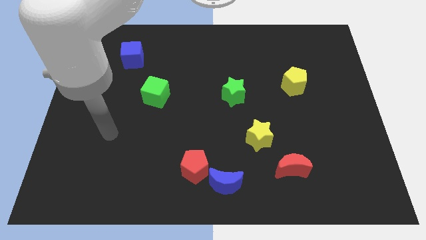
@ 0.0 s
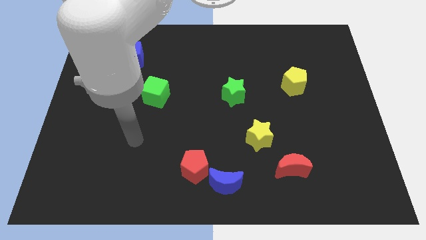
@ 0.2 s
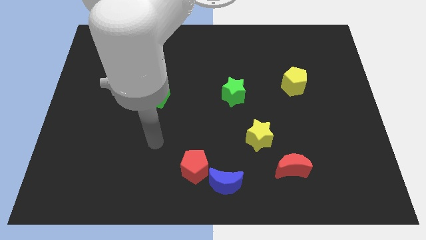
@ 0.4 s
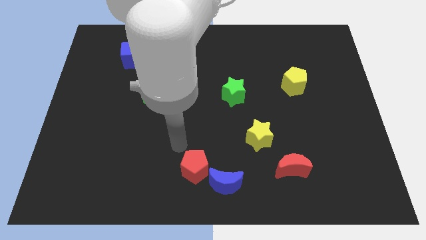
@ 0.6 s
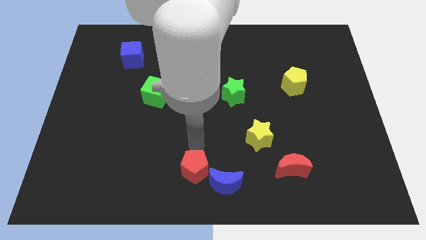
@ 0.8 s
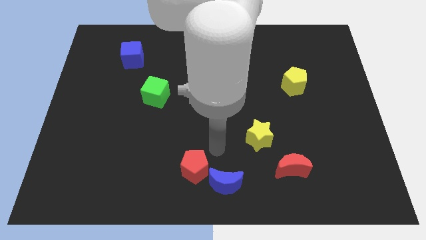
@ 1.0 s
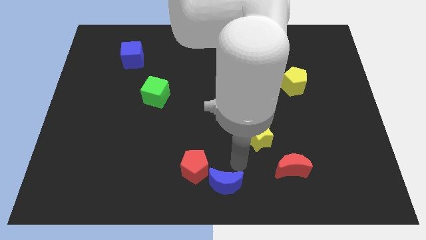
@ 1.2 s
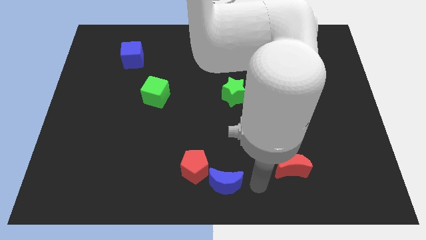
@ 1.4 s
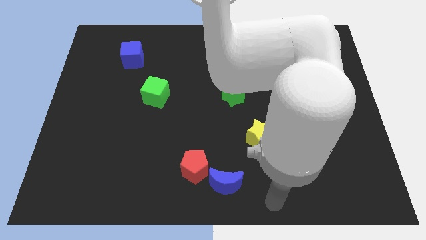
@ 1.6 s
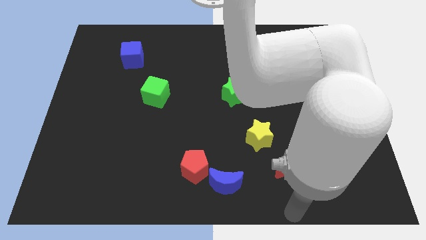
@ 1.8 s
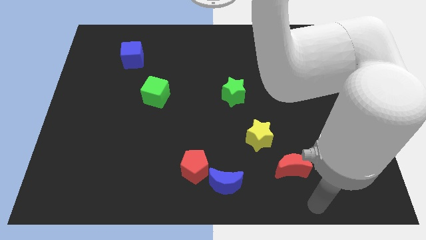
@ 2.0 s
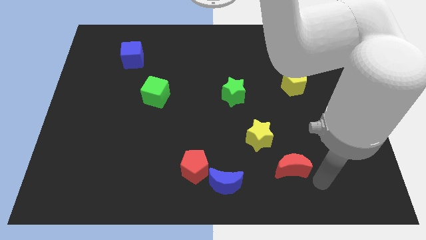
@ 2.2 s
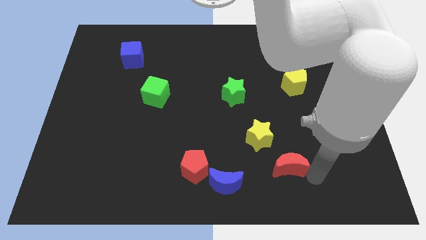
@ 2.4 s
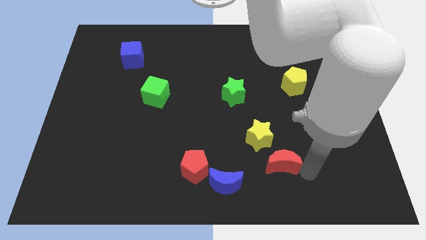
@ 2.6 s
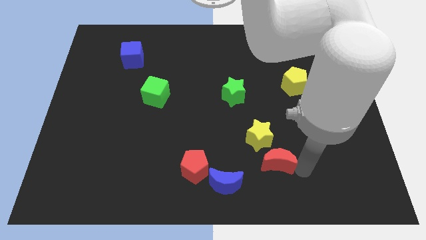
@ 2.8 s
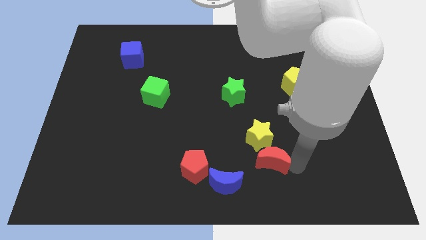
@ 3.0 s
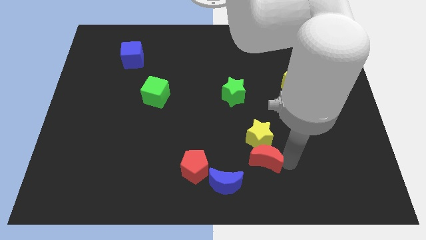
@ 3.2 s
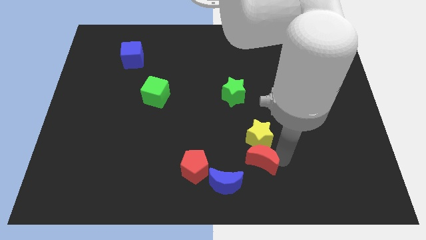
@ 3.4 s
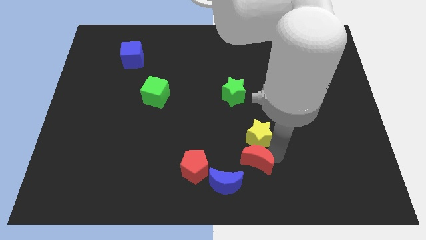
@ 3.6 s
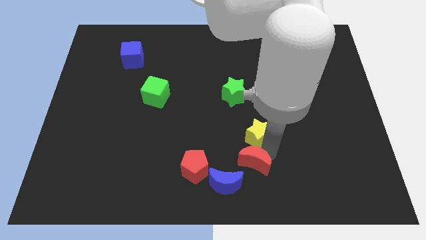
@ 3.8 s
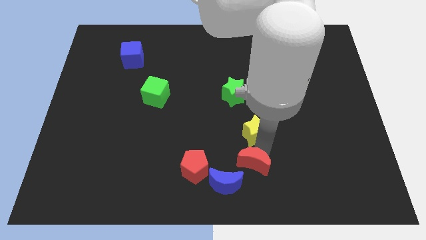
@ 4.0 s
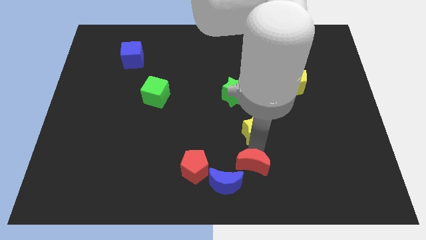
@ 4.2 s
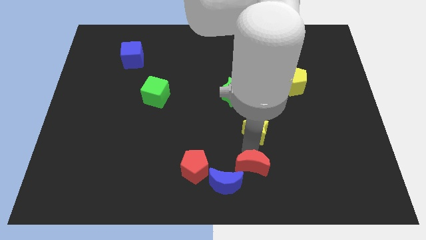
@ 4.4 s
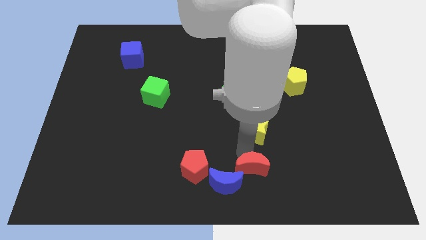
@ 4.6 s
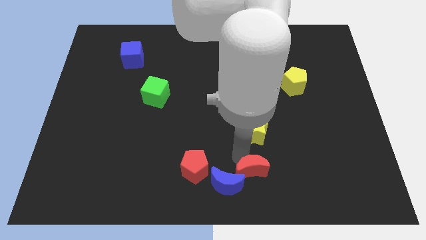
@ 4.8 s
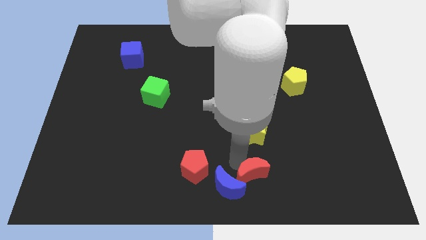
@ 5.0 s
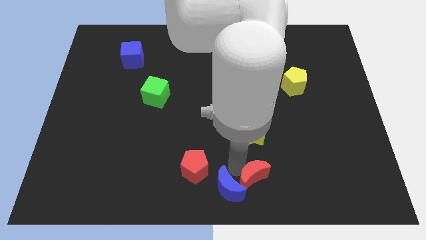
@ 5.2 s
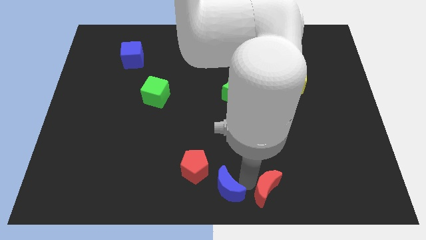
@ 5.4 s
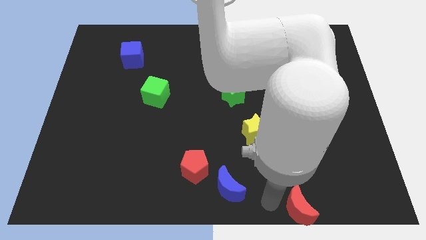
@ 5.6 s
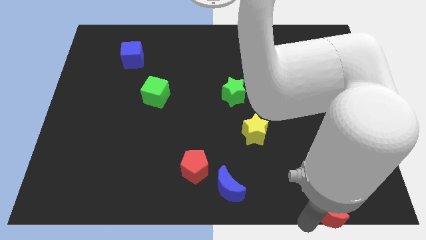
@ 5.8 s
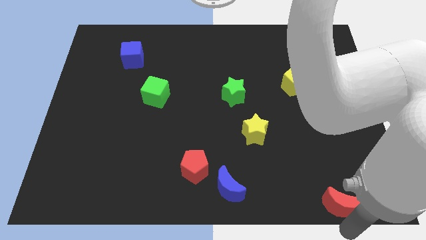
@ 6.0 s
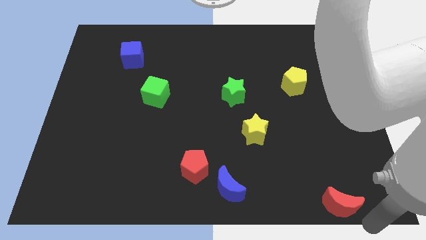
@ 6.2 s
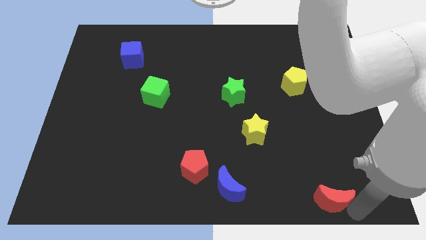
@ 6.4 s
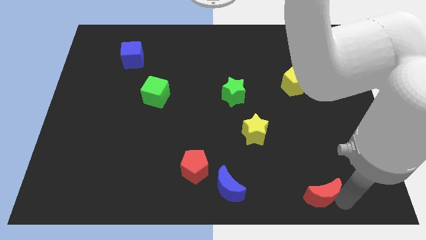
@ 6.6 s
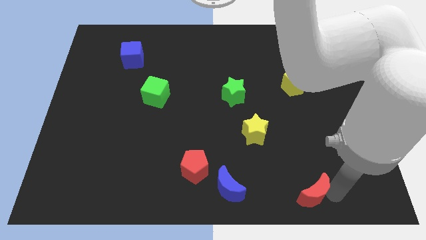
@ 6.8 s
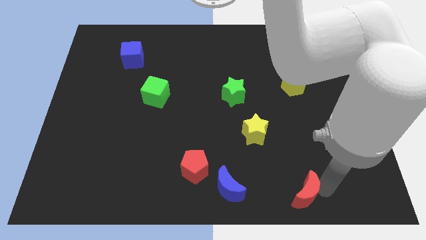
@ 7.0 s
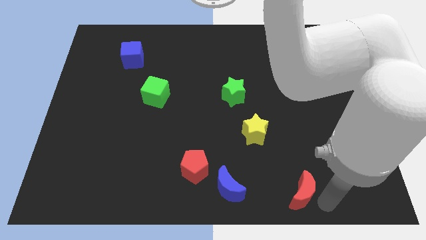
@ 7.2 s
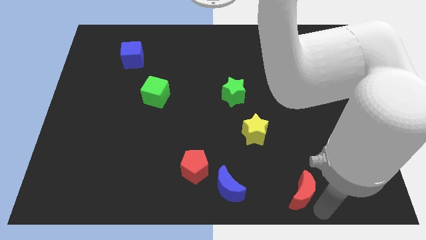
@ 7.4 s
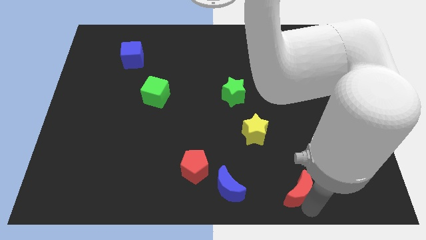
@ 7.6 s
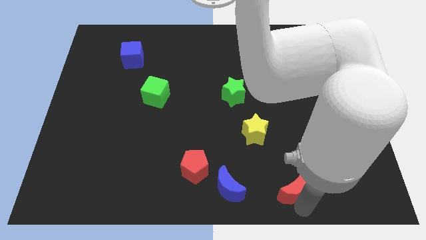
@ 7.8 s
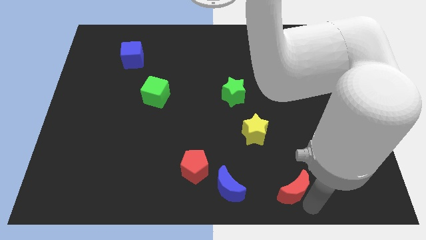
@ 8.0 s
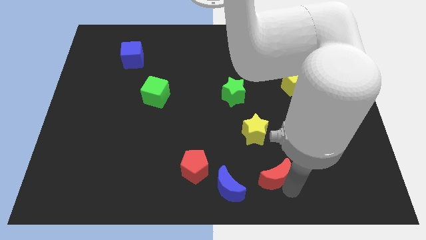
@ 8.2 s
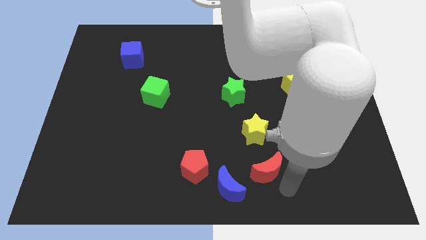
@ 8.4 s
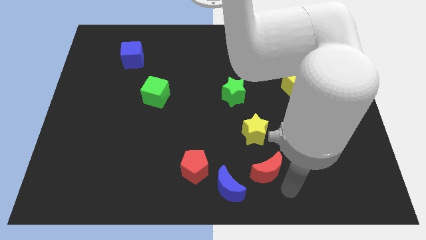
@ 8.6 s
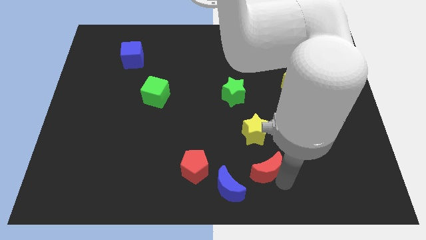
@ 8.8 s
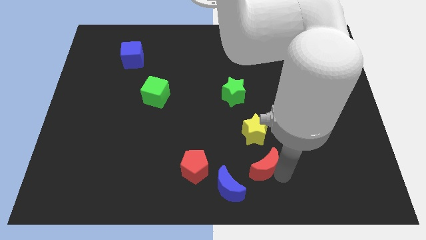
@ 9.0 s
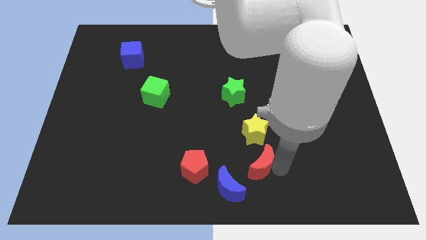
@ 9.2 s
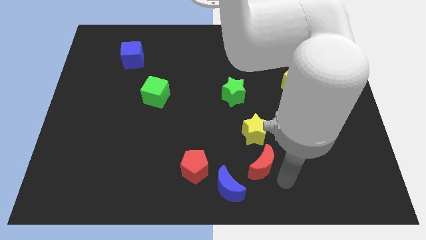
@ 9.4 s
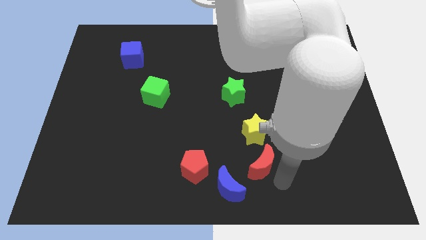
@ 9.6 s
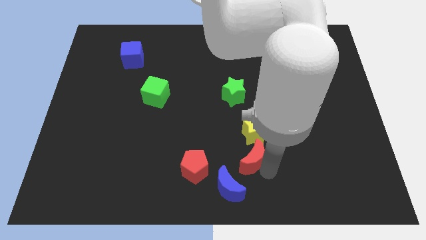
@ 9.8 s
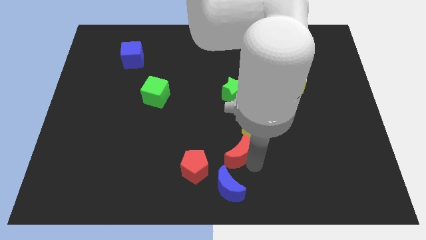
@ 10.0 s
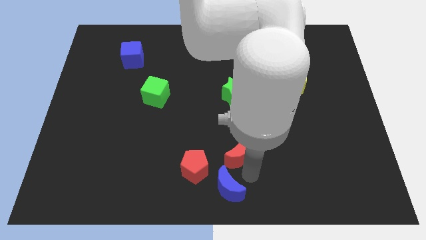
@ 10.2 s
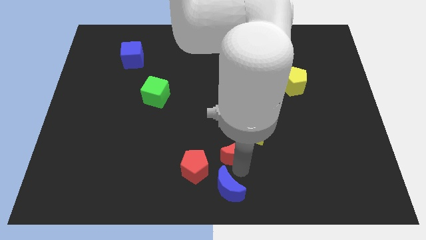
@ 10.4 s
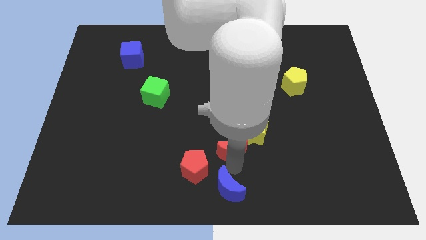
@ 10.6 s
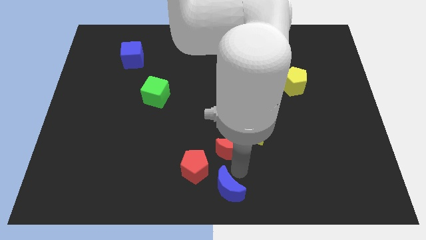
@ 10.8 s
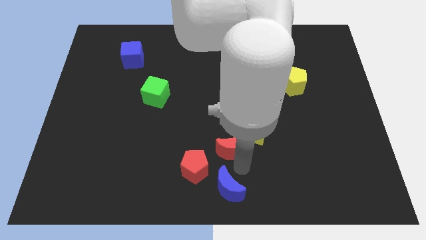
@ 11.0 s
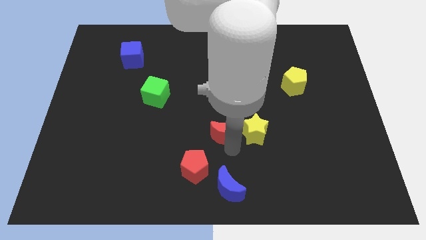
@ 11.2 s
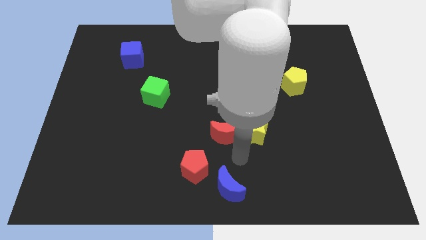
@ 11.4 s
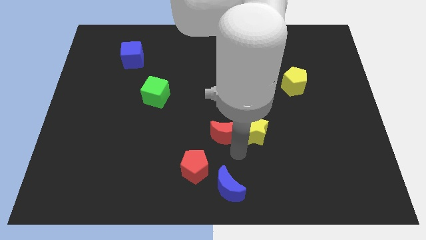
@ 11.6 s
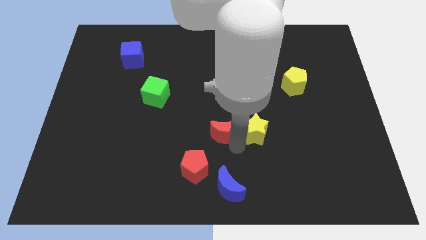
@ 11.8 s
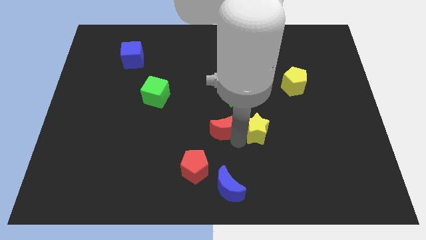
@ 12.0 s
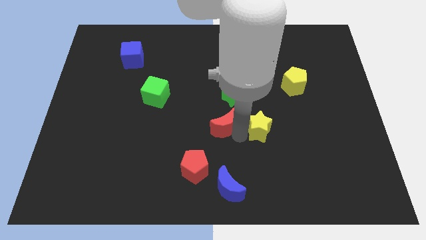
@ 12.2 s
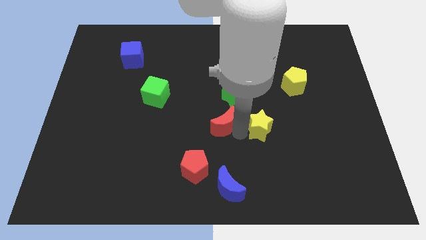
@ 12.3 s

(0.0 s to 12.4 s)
push the red moon to the bottom left of the green star

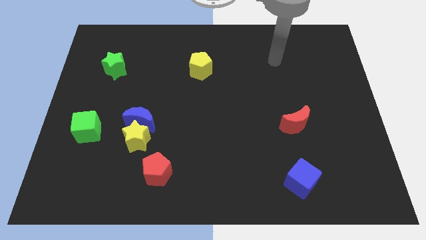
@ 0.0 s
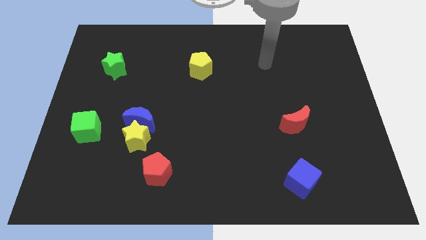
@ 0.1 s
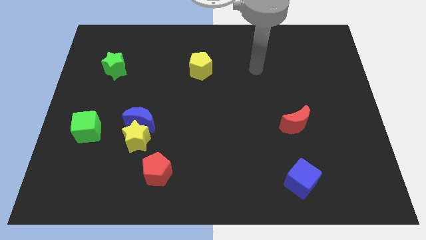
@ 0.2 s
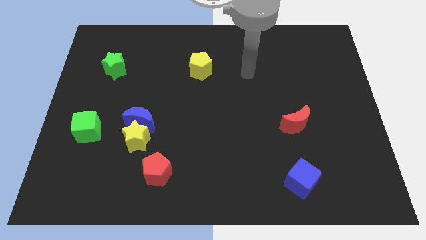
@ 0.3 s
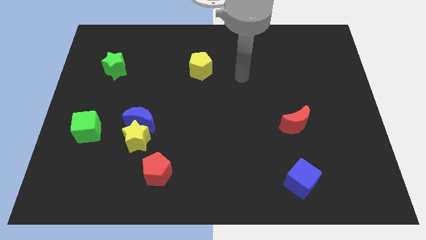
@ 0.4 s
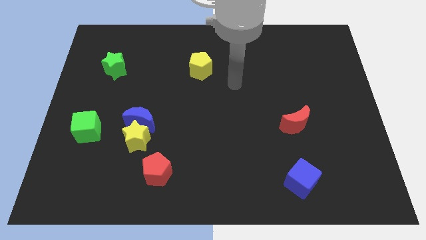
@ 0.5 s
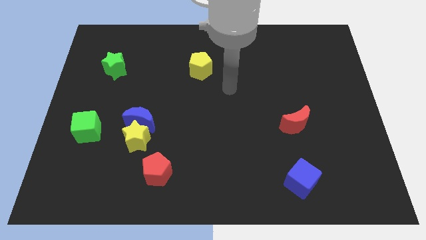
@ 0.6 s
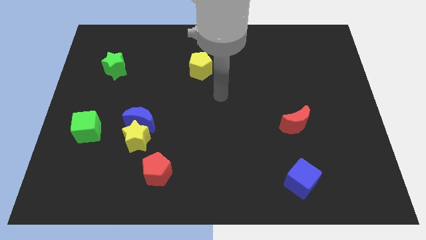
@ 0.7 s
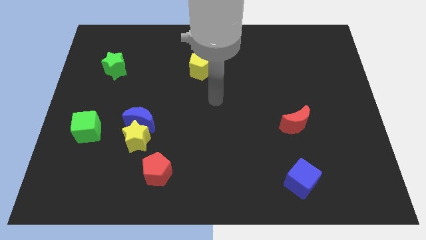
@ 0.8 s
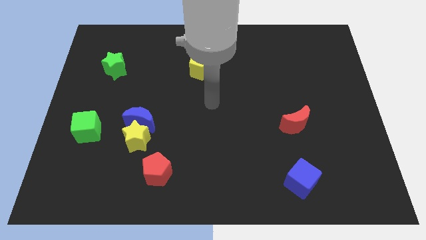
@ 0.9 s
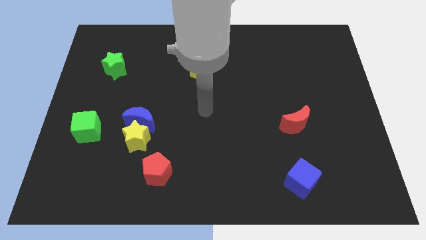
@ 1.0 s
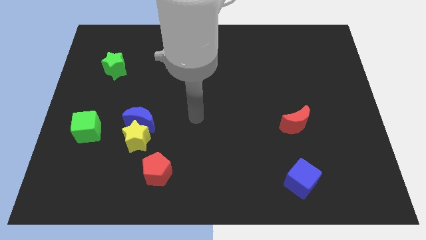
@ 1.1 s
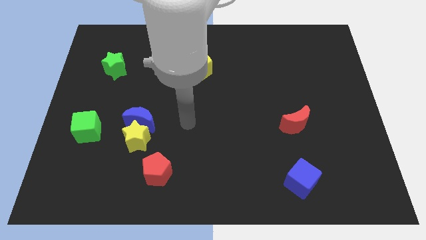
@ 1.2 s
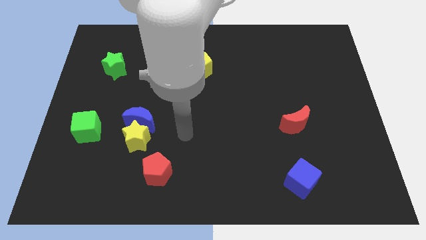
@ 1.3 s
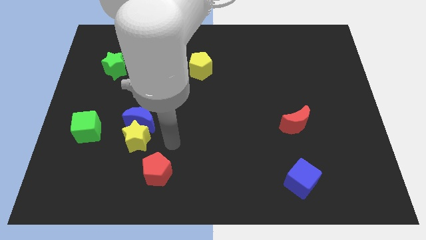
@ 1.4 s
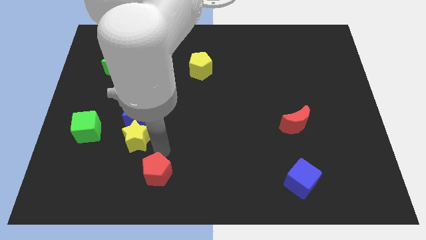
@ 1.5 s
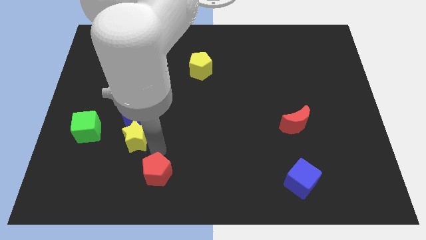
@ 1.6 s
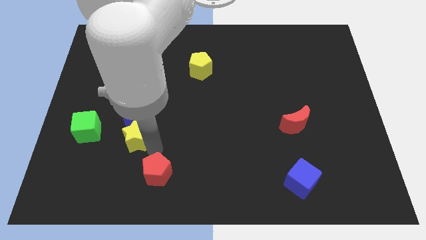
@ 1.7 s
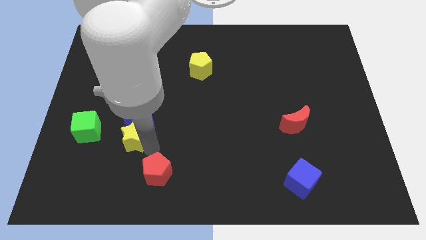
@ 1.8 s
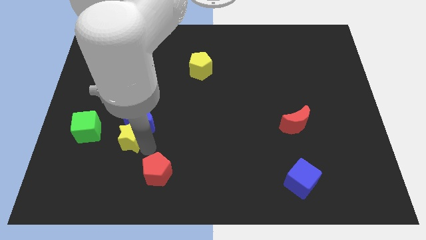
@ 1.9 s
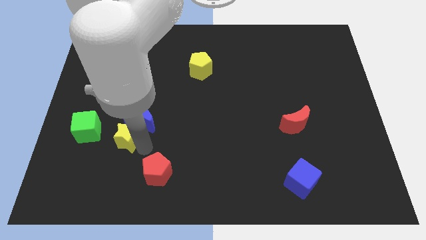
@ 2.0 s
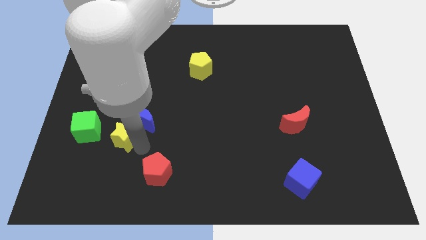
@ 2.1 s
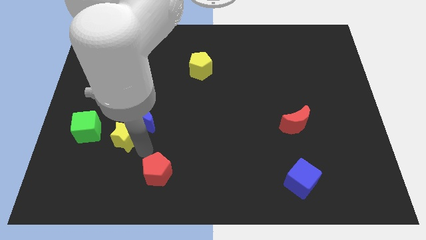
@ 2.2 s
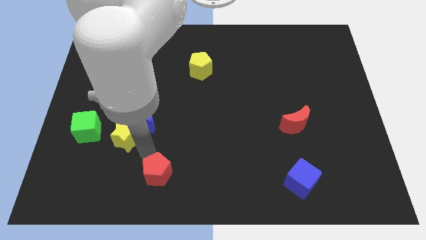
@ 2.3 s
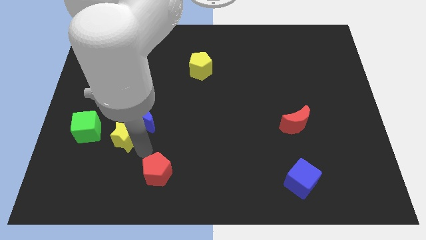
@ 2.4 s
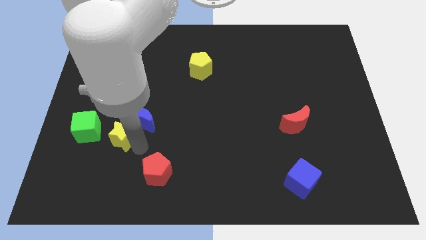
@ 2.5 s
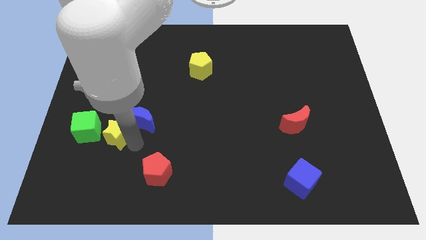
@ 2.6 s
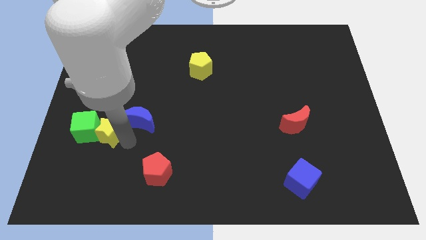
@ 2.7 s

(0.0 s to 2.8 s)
move the yellow star to the top right side of the green cube
